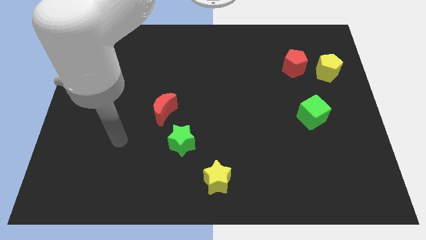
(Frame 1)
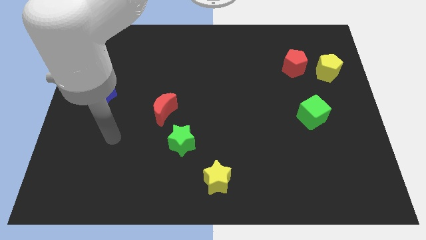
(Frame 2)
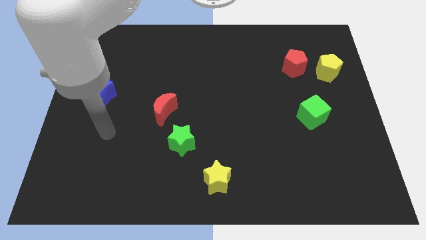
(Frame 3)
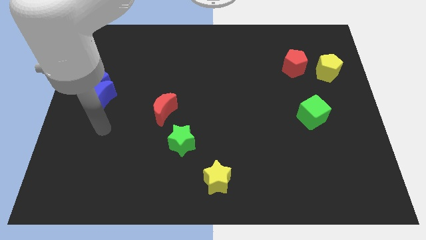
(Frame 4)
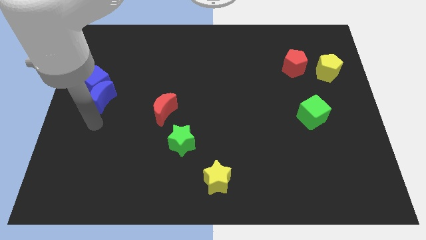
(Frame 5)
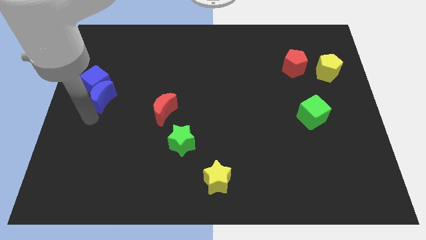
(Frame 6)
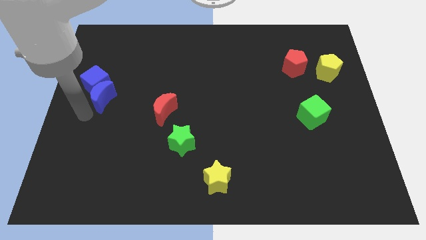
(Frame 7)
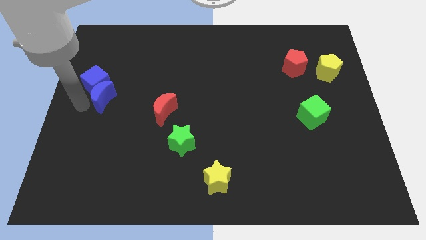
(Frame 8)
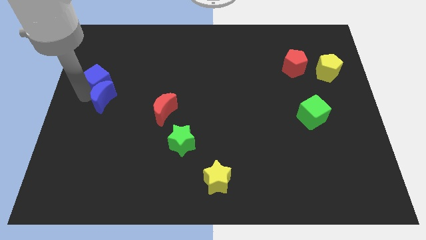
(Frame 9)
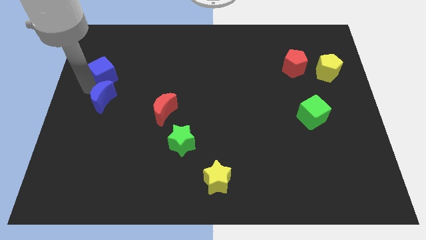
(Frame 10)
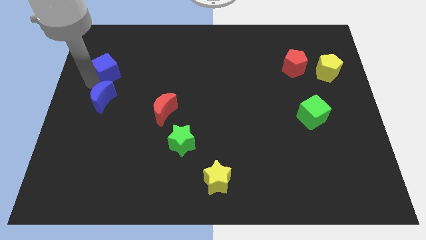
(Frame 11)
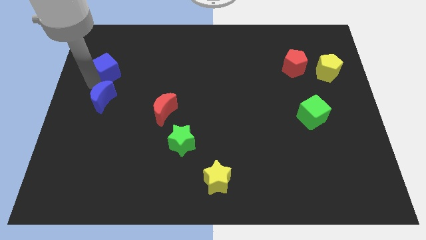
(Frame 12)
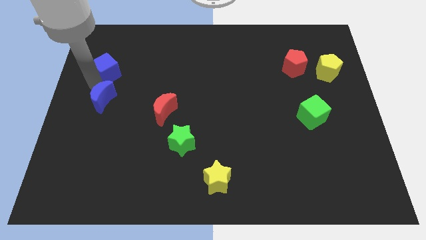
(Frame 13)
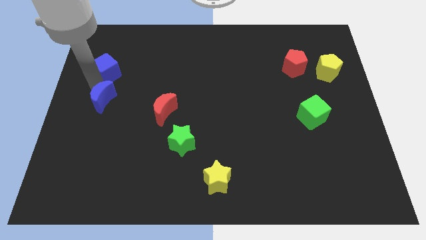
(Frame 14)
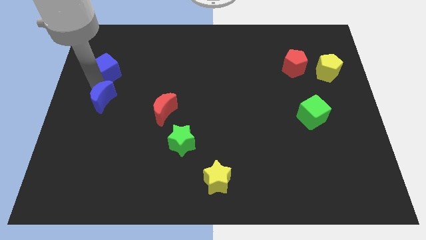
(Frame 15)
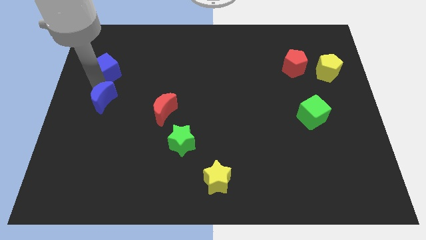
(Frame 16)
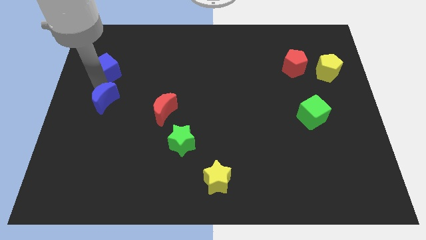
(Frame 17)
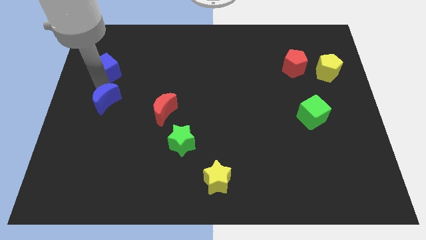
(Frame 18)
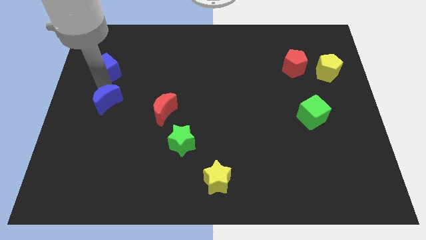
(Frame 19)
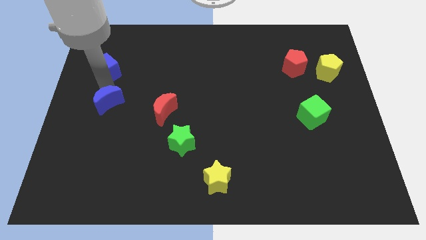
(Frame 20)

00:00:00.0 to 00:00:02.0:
move the blue moon away from the blue cube

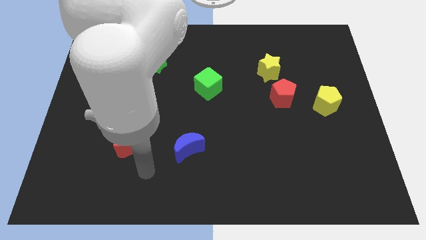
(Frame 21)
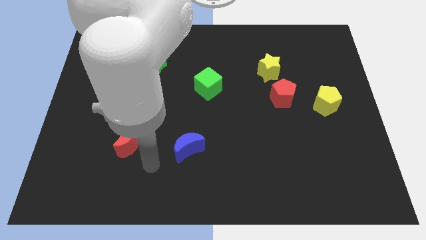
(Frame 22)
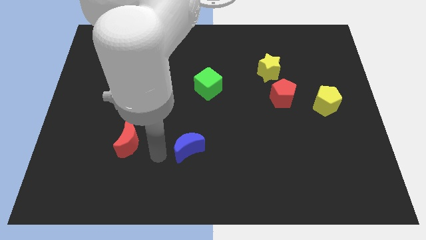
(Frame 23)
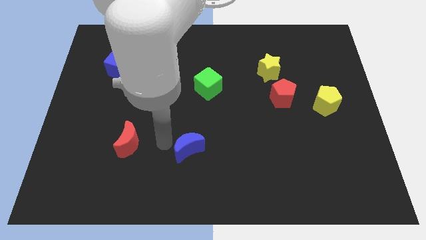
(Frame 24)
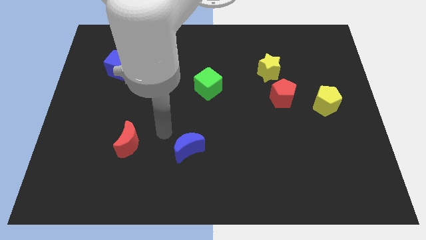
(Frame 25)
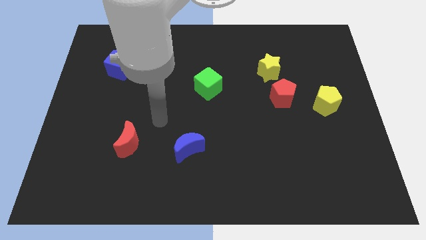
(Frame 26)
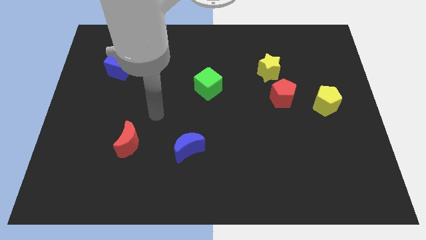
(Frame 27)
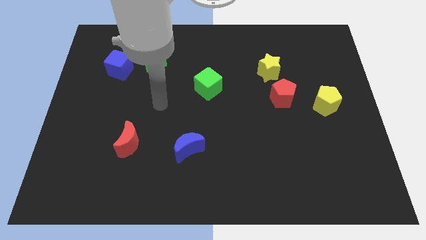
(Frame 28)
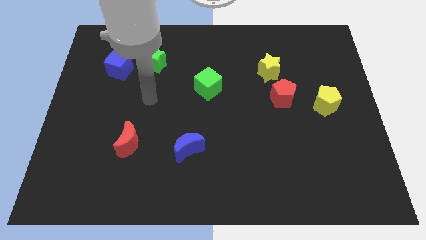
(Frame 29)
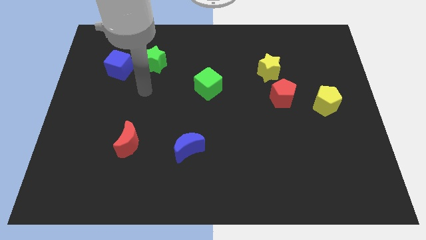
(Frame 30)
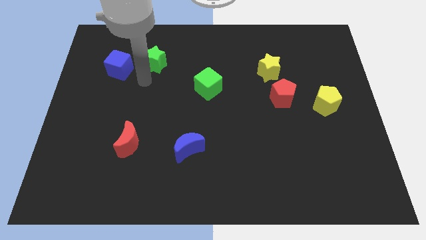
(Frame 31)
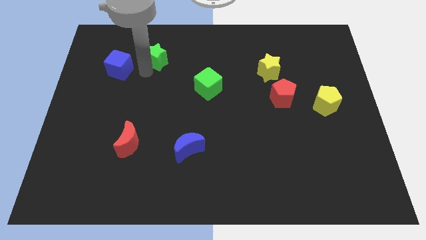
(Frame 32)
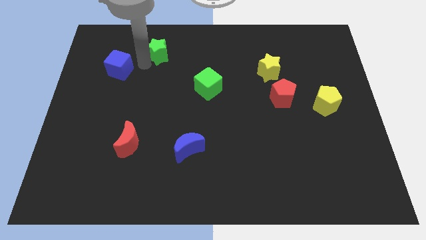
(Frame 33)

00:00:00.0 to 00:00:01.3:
move the blue cube away from the green star

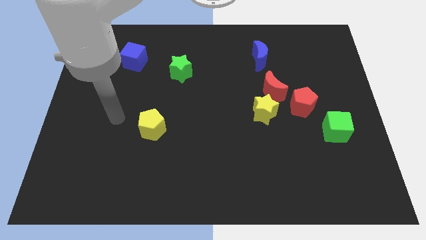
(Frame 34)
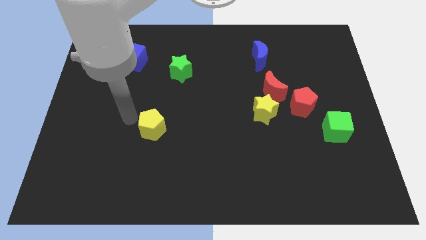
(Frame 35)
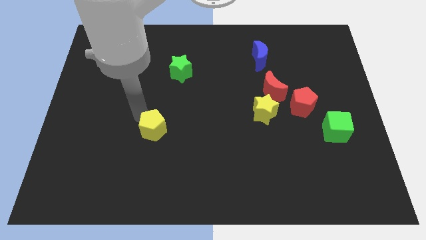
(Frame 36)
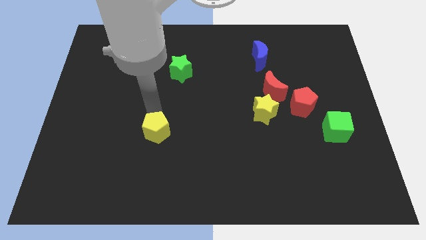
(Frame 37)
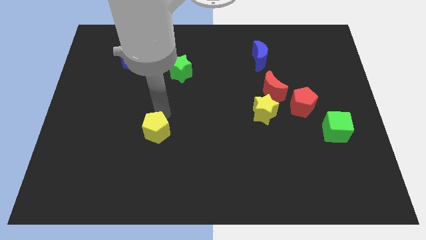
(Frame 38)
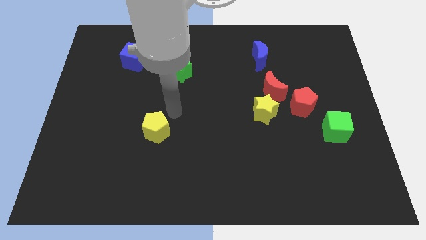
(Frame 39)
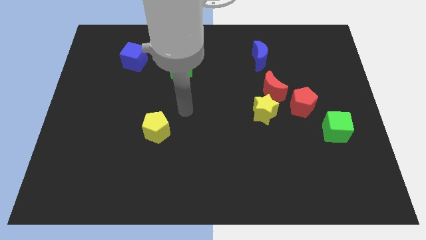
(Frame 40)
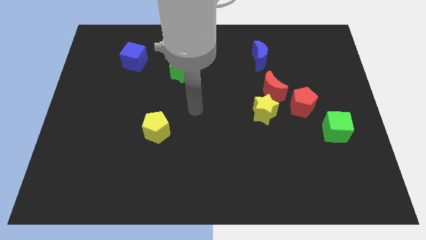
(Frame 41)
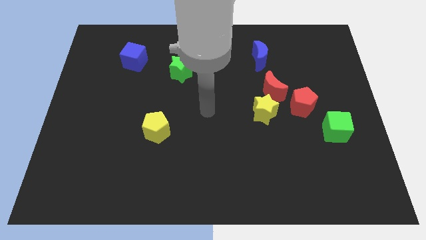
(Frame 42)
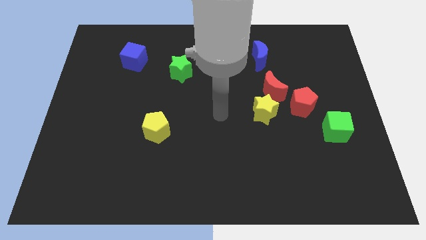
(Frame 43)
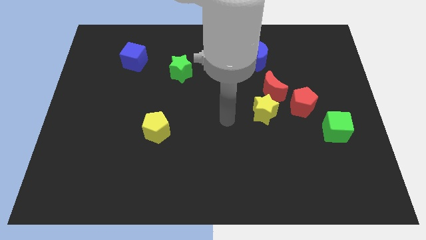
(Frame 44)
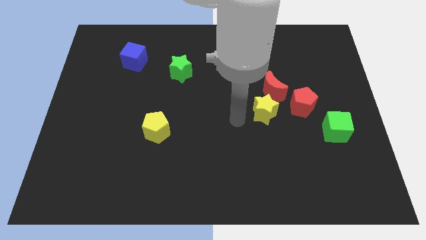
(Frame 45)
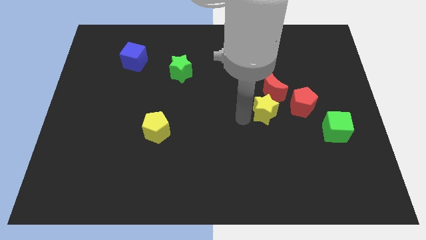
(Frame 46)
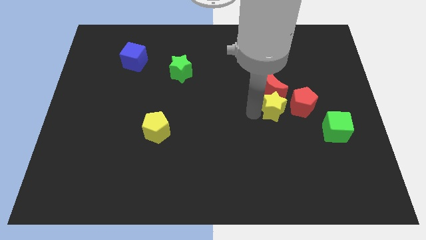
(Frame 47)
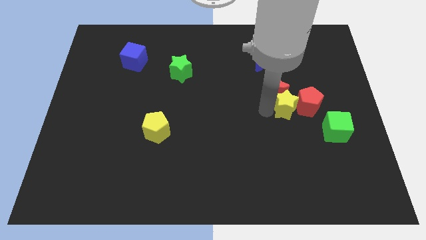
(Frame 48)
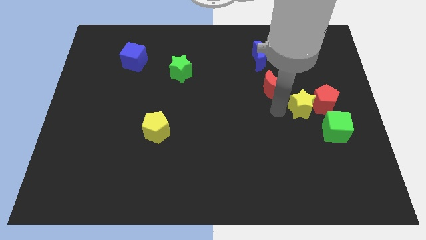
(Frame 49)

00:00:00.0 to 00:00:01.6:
separate the red moon from the yellow star and red pentagon

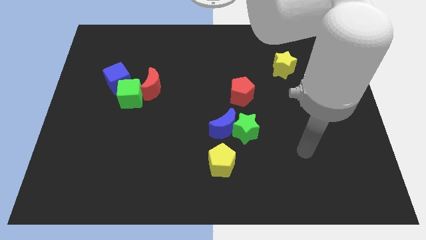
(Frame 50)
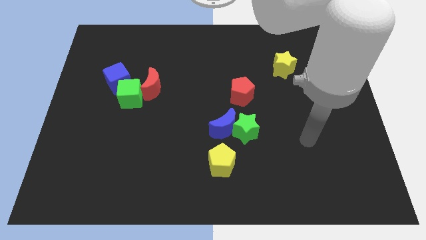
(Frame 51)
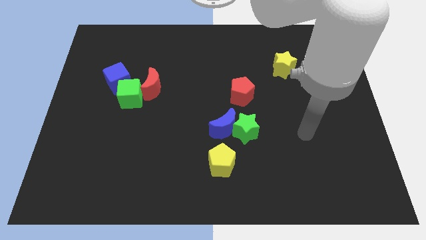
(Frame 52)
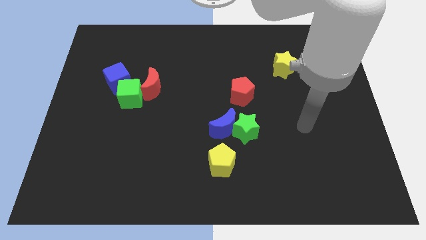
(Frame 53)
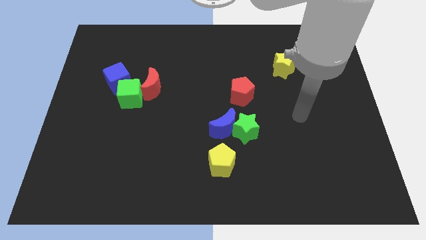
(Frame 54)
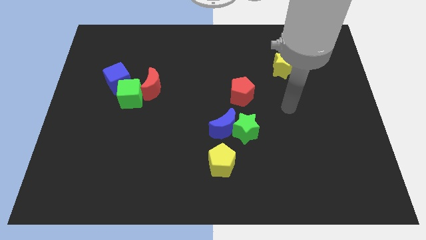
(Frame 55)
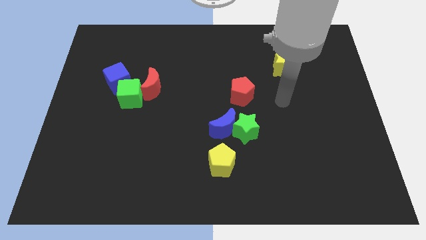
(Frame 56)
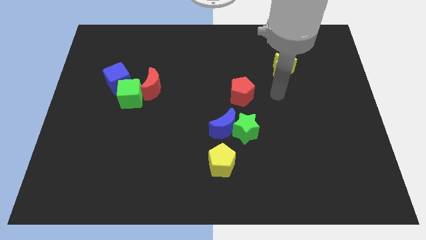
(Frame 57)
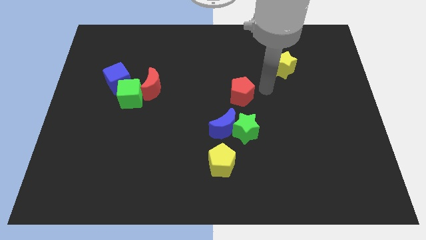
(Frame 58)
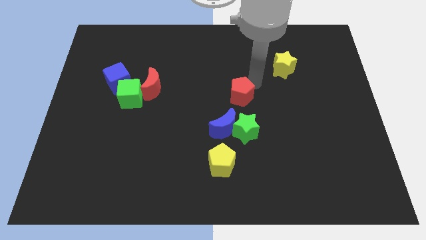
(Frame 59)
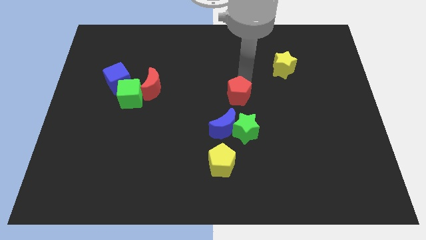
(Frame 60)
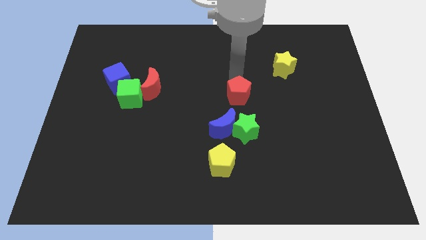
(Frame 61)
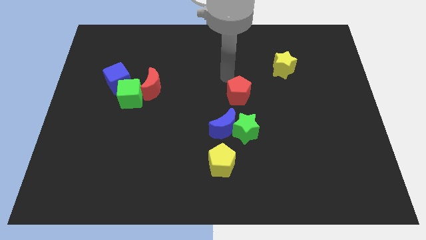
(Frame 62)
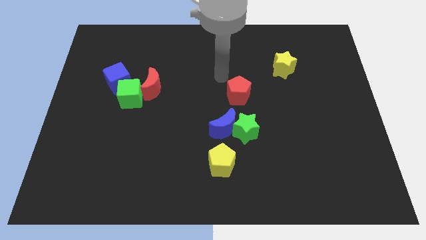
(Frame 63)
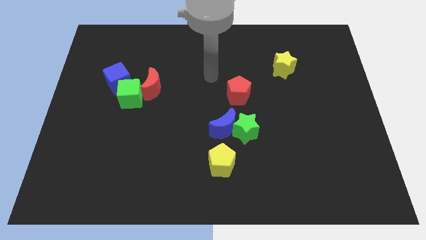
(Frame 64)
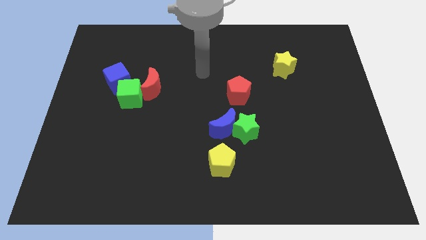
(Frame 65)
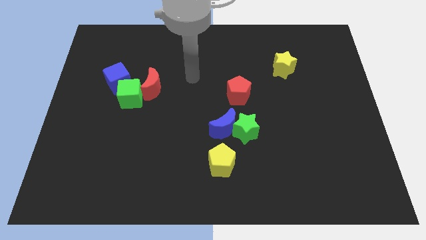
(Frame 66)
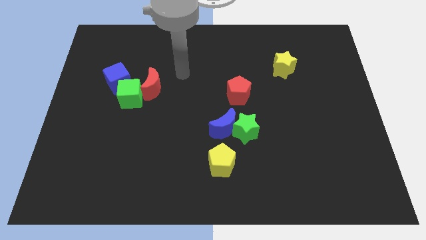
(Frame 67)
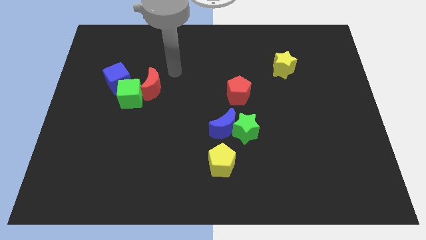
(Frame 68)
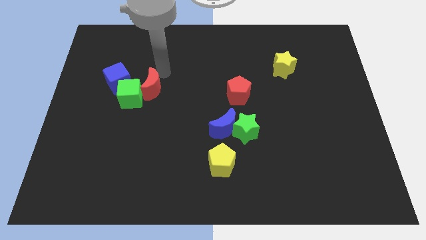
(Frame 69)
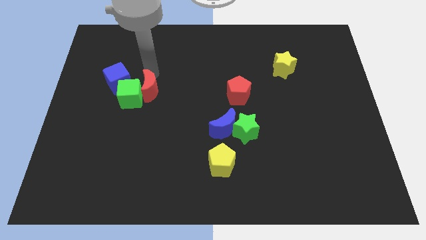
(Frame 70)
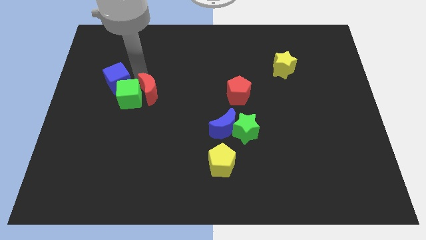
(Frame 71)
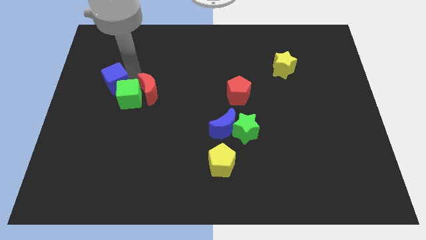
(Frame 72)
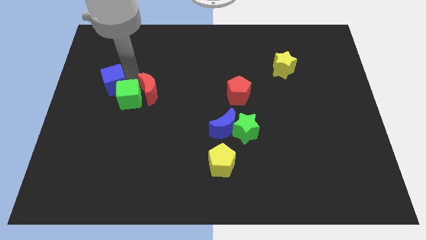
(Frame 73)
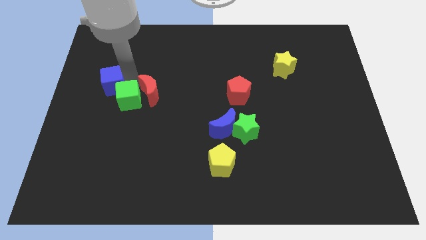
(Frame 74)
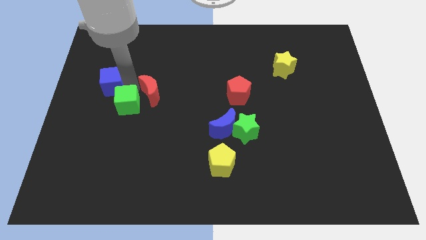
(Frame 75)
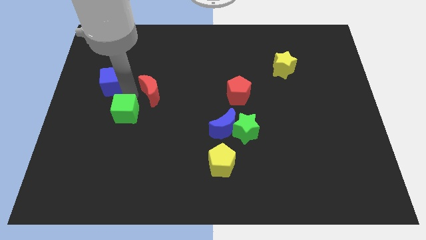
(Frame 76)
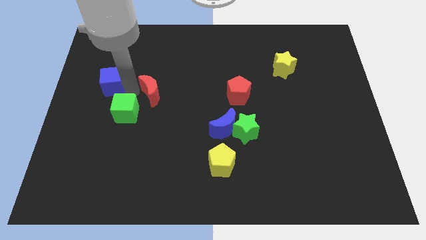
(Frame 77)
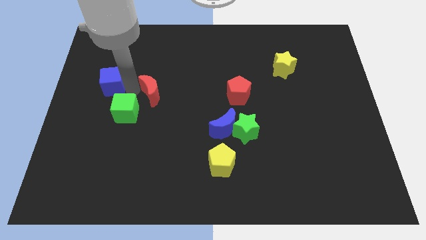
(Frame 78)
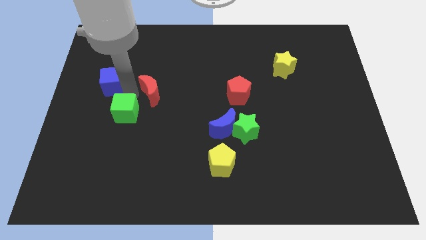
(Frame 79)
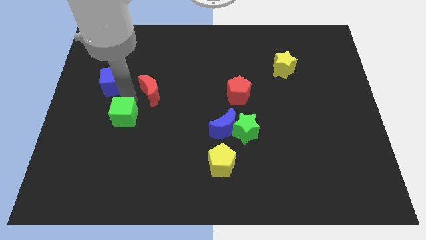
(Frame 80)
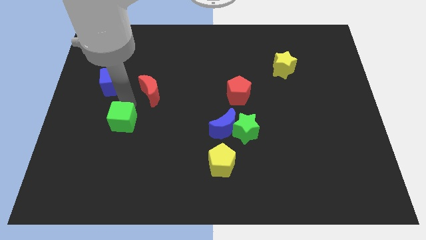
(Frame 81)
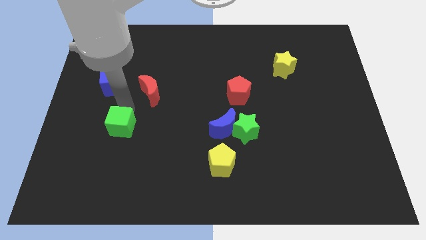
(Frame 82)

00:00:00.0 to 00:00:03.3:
move the green cube away from the red moon and blue cube

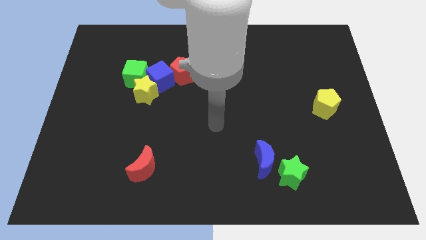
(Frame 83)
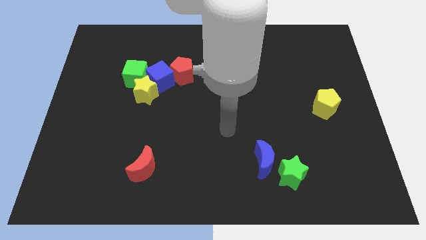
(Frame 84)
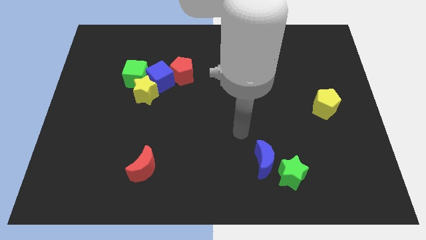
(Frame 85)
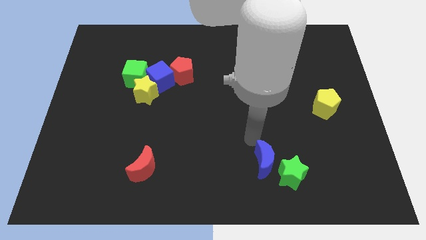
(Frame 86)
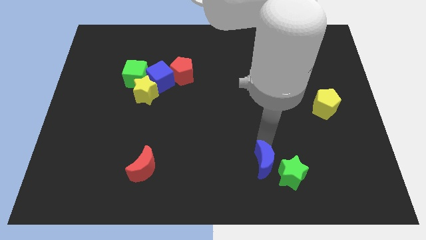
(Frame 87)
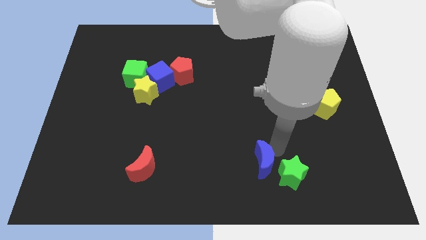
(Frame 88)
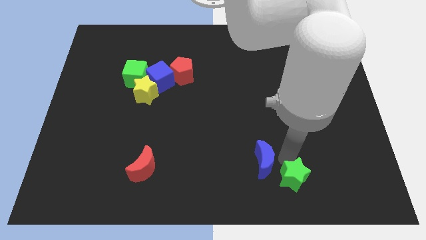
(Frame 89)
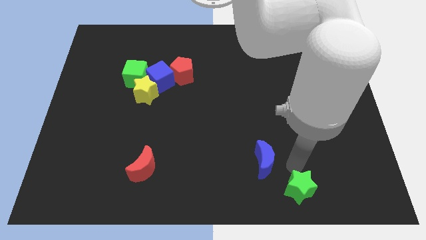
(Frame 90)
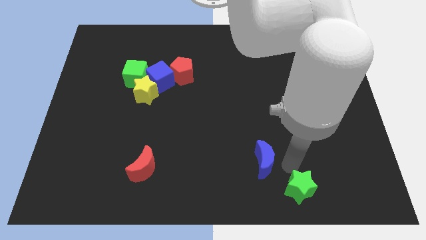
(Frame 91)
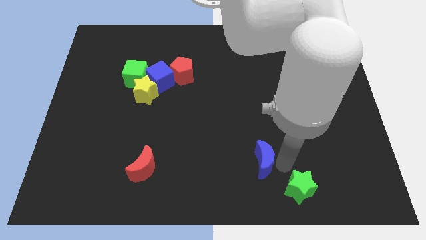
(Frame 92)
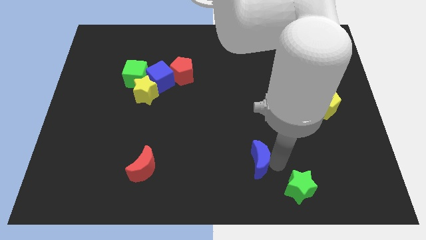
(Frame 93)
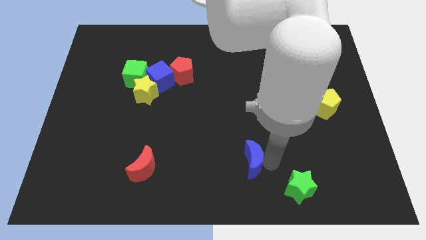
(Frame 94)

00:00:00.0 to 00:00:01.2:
separate the blue moon from the green star
